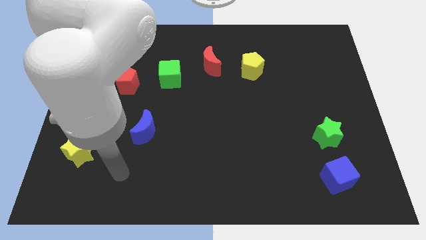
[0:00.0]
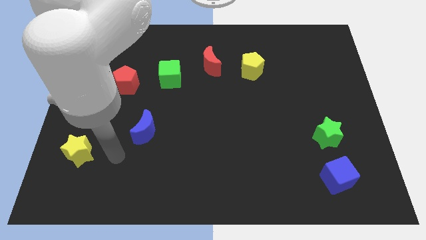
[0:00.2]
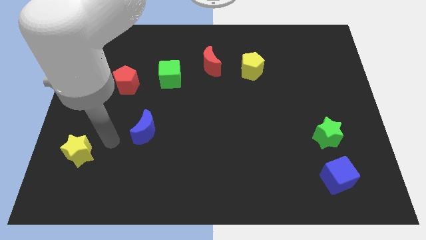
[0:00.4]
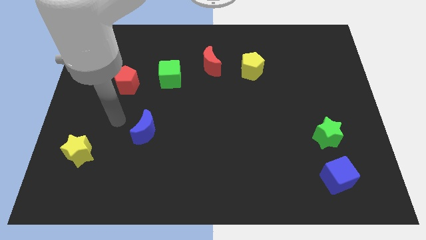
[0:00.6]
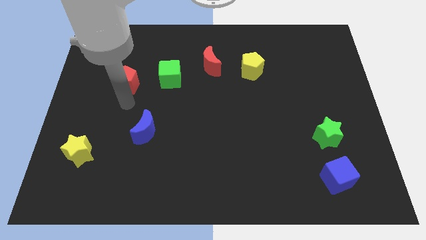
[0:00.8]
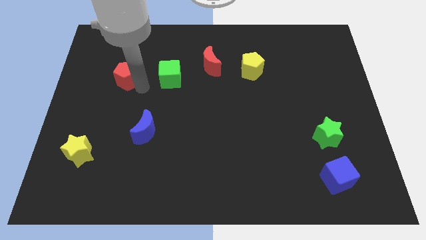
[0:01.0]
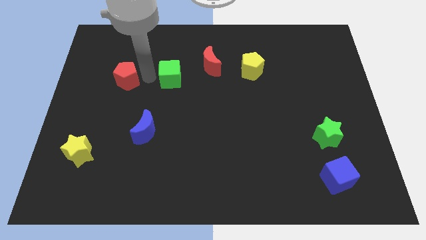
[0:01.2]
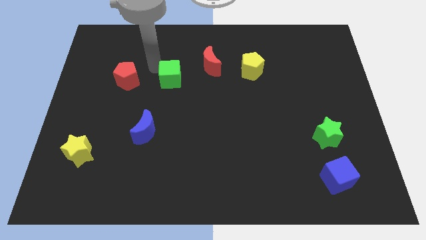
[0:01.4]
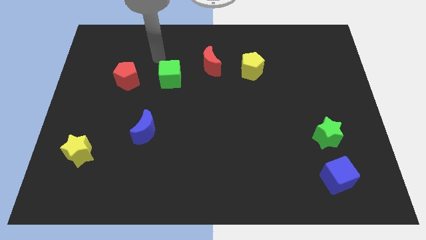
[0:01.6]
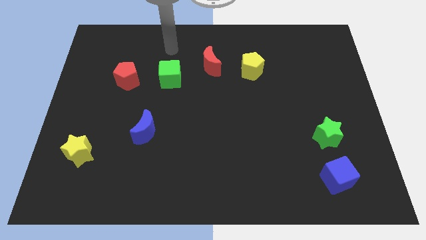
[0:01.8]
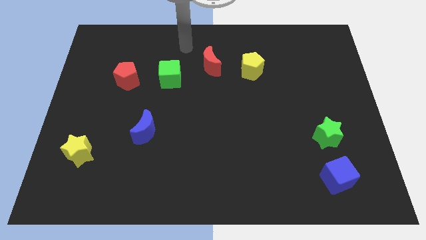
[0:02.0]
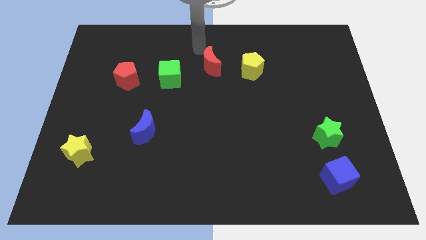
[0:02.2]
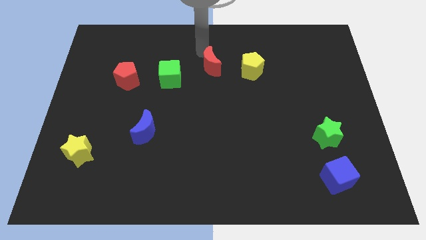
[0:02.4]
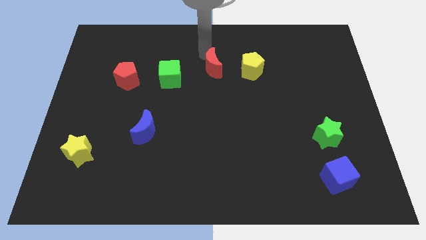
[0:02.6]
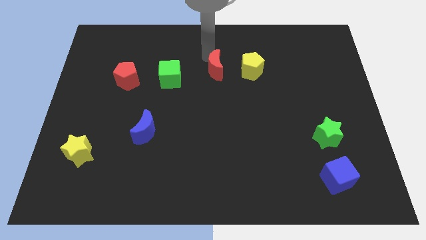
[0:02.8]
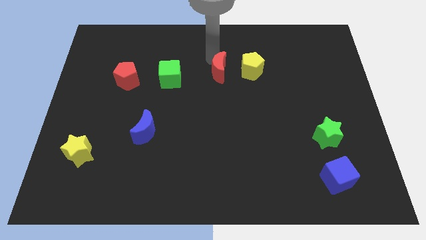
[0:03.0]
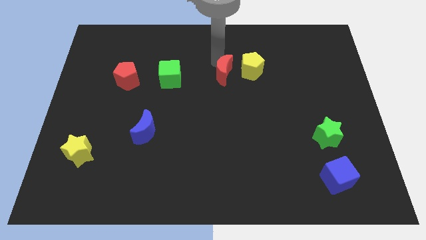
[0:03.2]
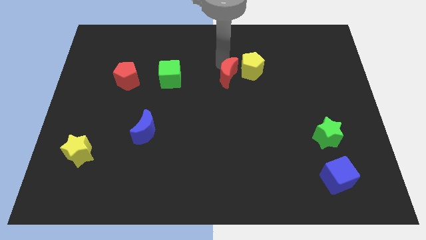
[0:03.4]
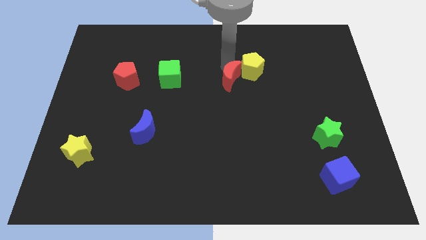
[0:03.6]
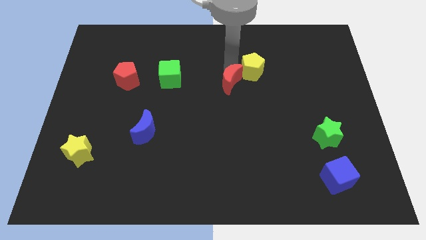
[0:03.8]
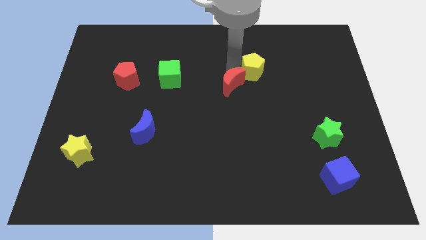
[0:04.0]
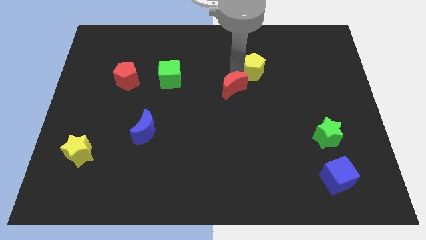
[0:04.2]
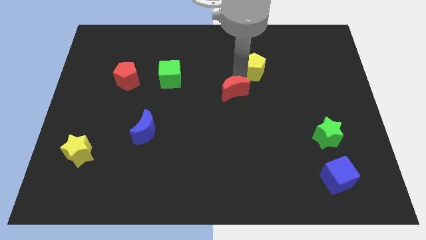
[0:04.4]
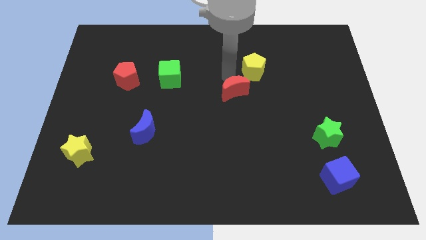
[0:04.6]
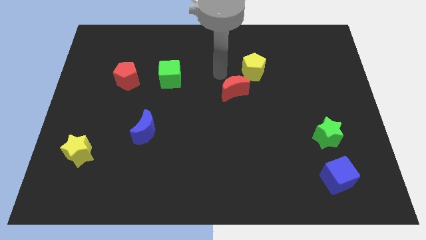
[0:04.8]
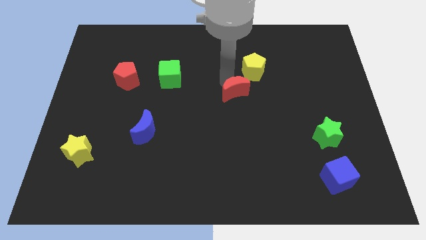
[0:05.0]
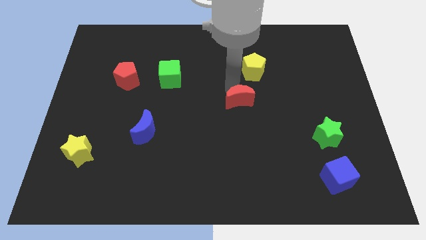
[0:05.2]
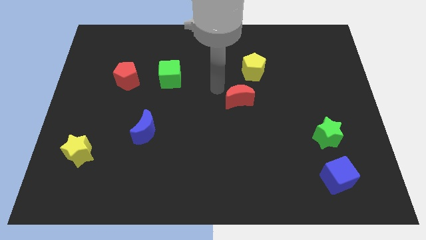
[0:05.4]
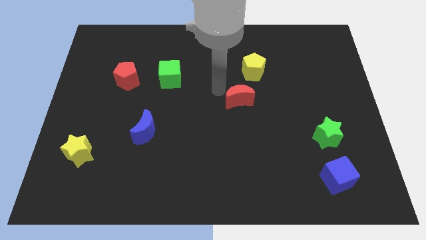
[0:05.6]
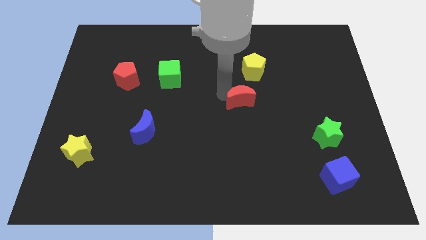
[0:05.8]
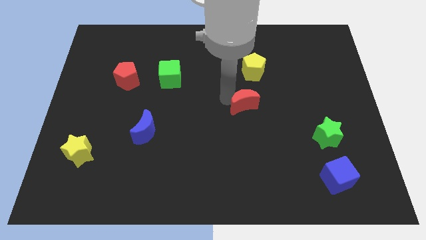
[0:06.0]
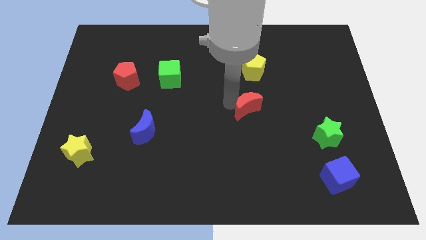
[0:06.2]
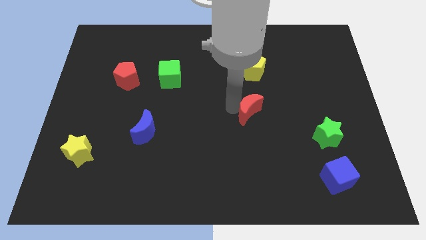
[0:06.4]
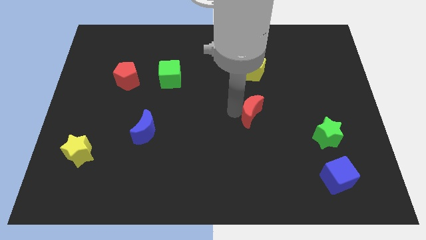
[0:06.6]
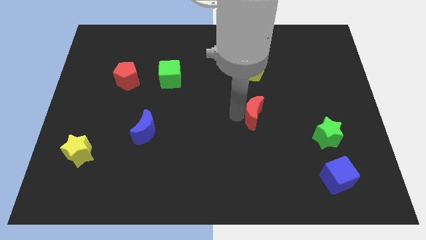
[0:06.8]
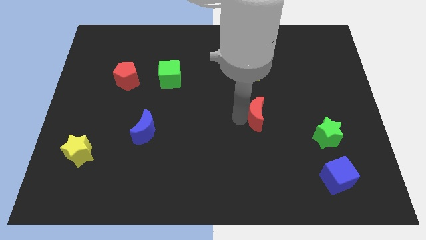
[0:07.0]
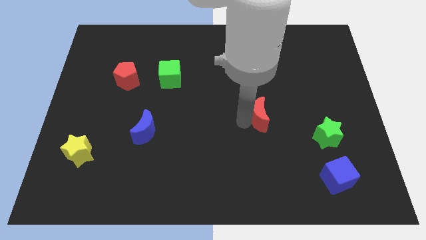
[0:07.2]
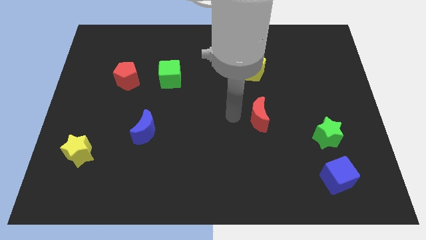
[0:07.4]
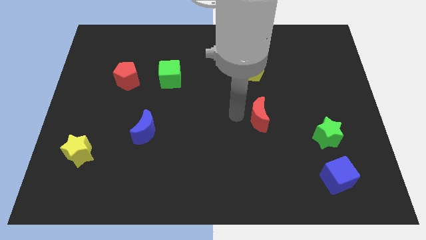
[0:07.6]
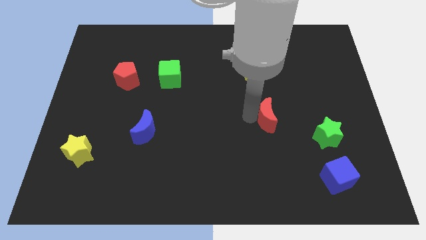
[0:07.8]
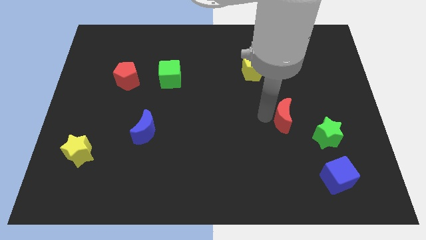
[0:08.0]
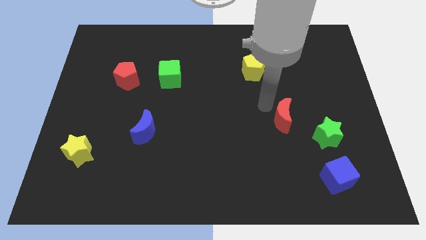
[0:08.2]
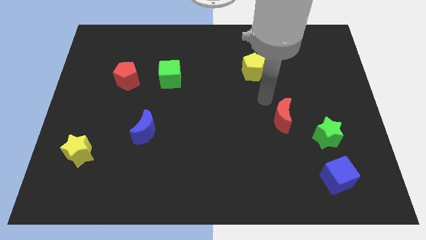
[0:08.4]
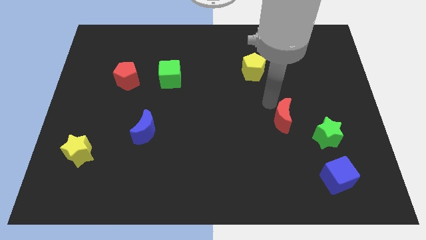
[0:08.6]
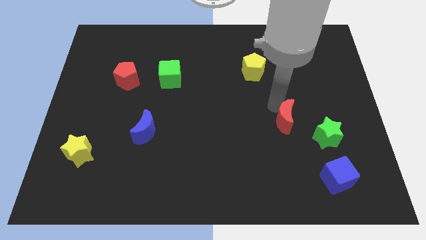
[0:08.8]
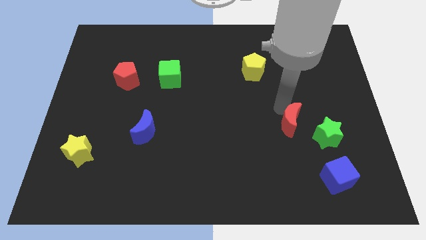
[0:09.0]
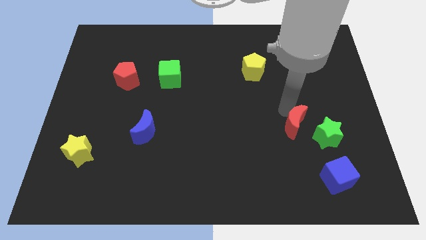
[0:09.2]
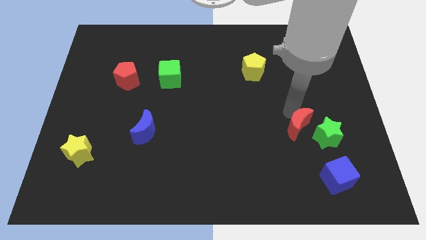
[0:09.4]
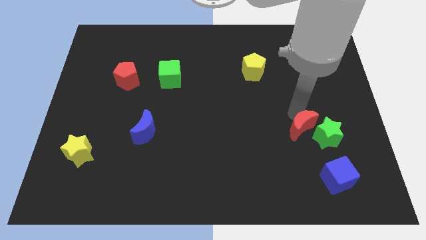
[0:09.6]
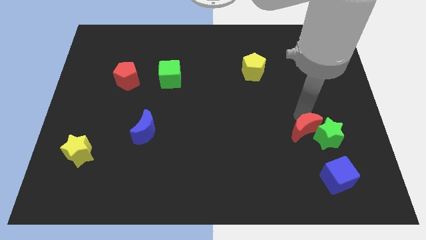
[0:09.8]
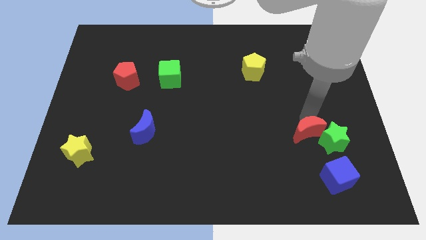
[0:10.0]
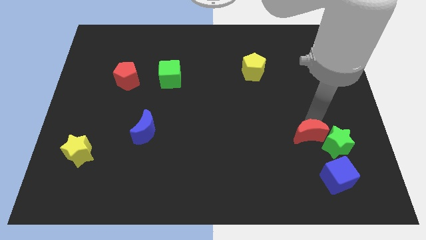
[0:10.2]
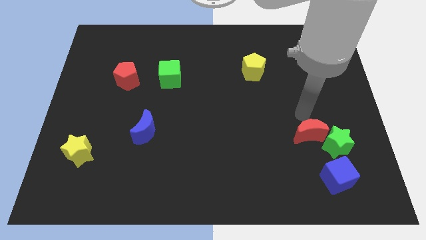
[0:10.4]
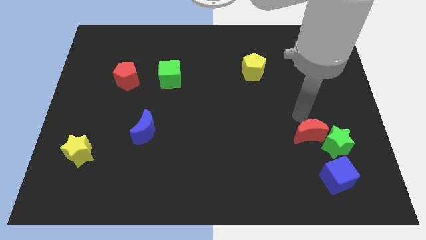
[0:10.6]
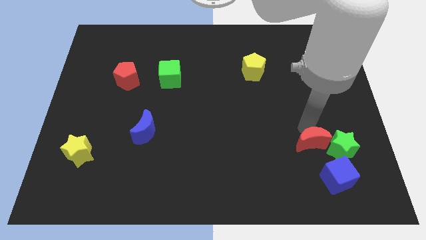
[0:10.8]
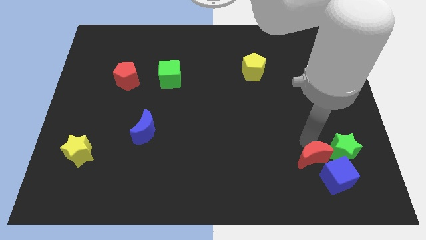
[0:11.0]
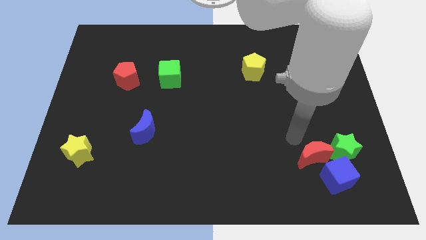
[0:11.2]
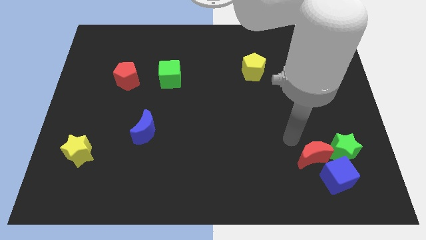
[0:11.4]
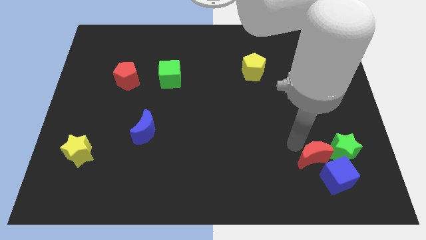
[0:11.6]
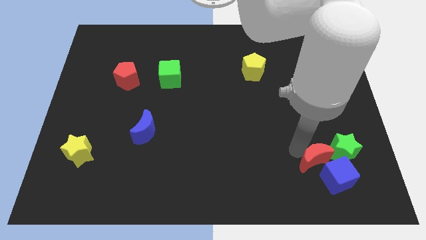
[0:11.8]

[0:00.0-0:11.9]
move the red moon close to the blue cube

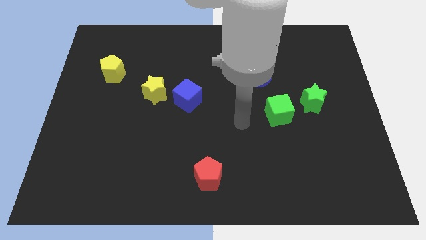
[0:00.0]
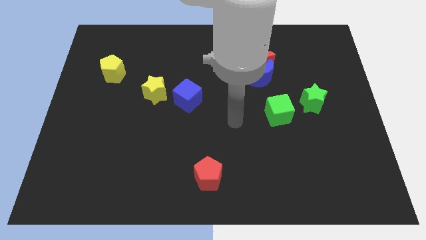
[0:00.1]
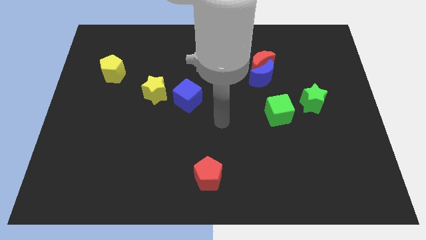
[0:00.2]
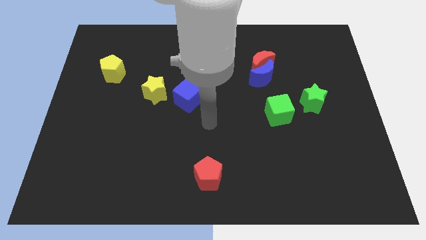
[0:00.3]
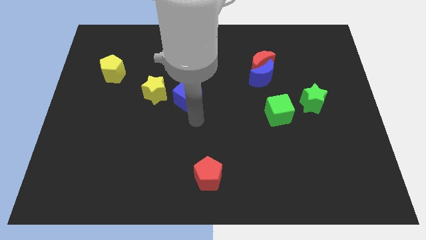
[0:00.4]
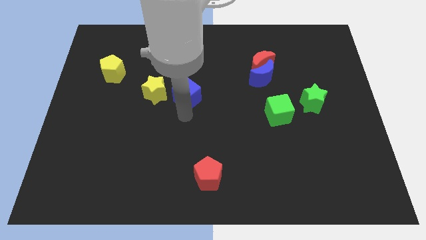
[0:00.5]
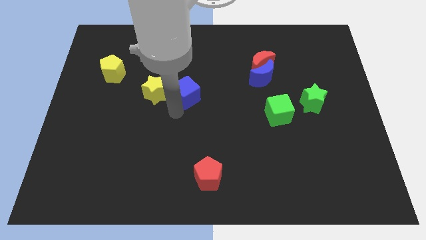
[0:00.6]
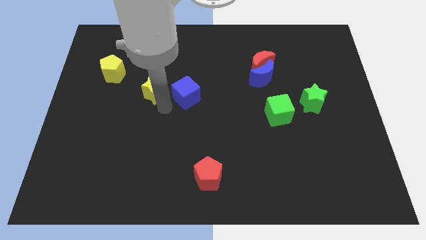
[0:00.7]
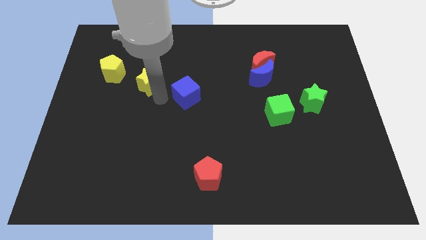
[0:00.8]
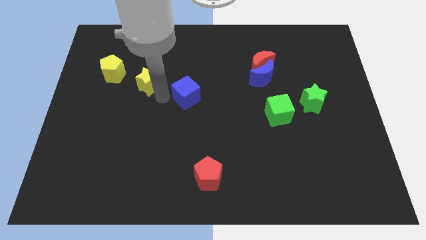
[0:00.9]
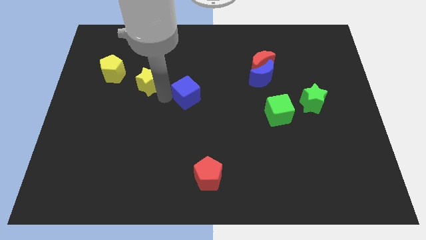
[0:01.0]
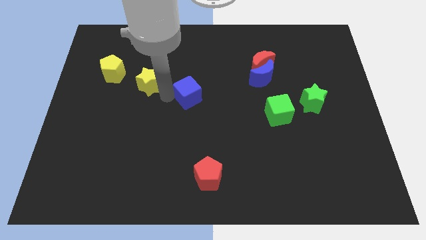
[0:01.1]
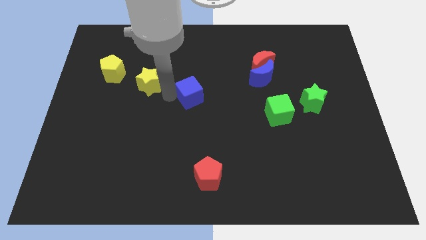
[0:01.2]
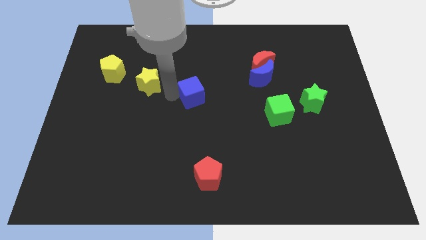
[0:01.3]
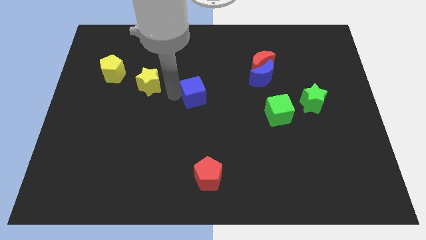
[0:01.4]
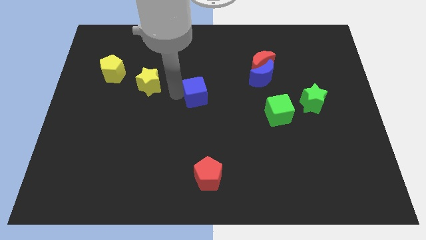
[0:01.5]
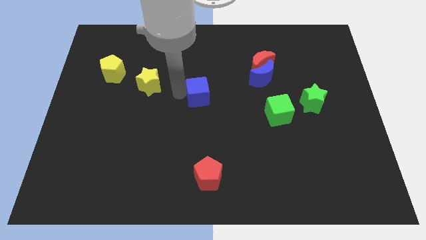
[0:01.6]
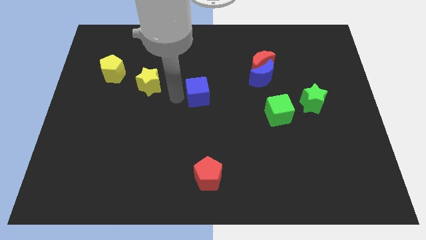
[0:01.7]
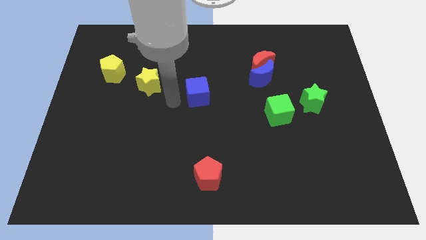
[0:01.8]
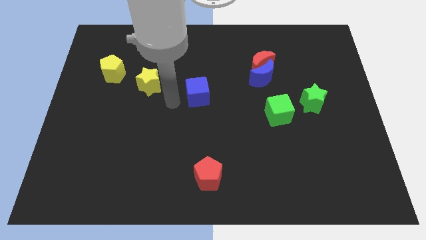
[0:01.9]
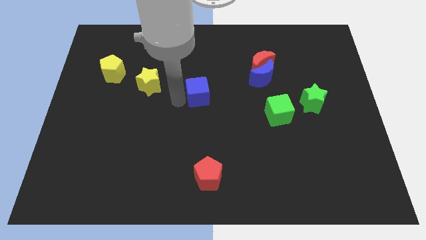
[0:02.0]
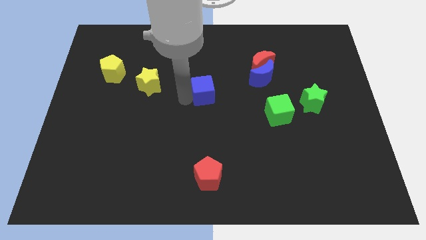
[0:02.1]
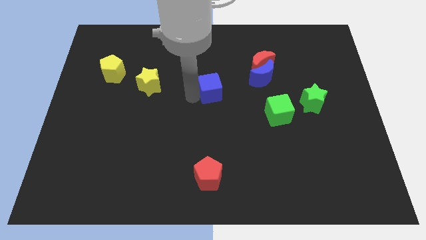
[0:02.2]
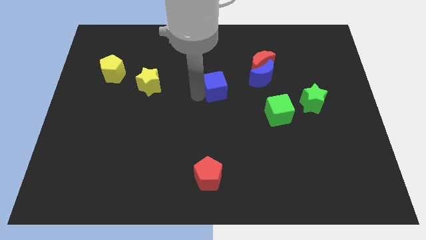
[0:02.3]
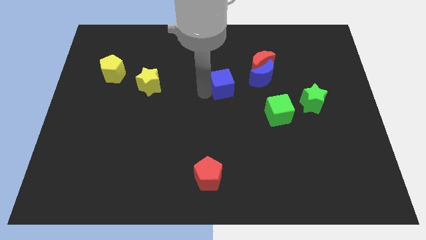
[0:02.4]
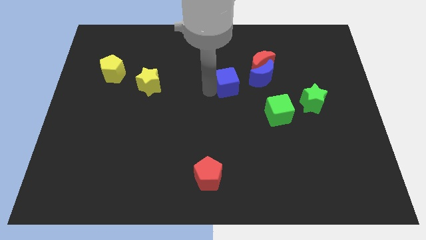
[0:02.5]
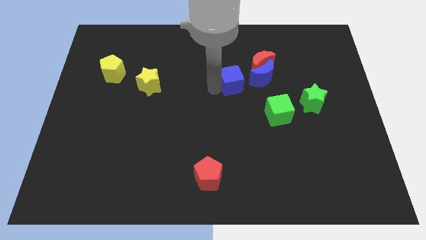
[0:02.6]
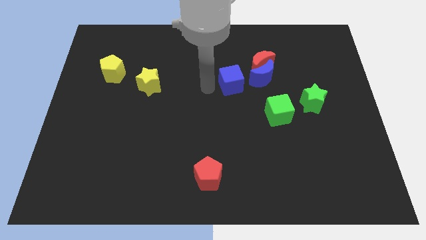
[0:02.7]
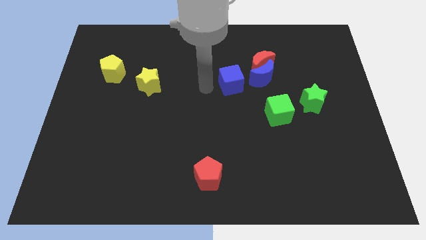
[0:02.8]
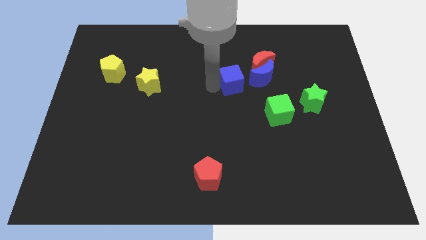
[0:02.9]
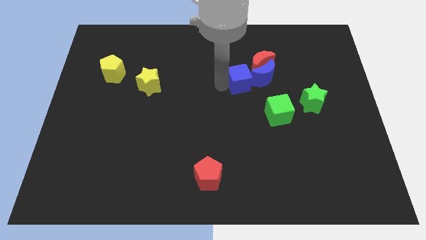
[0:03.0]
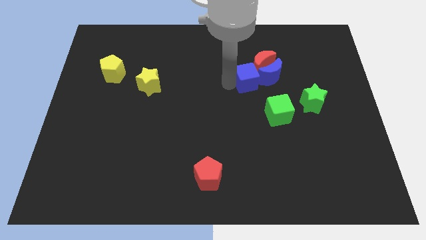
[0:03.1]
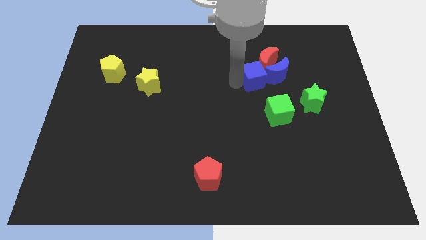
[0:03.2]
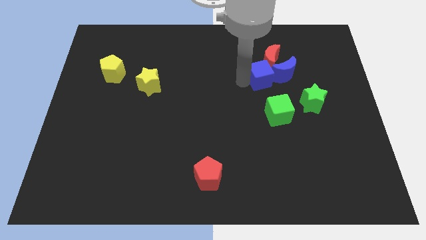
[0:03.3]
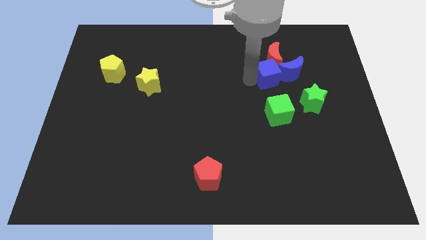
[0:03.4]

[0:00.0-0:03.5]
put the blue cube next to the blue moon
